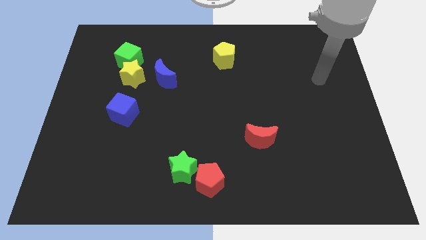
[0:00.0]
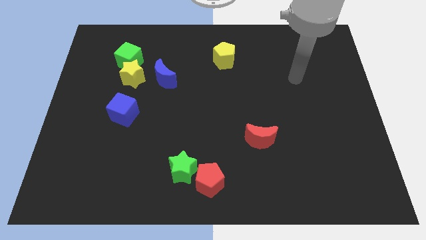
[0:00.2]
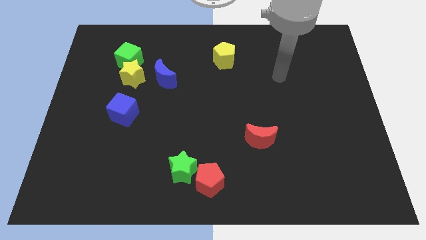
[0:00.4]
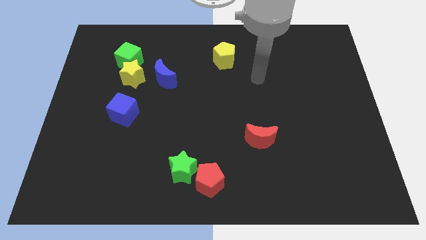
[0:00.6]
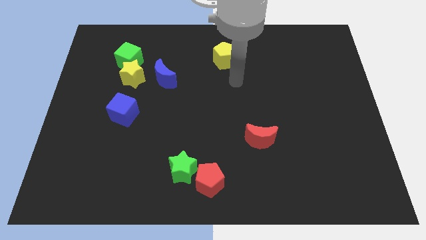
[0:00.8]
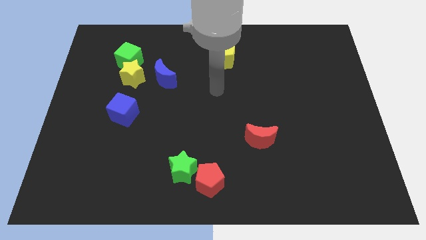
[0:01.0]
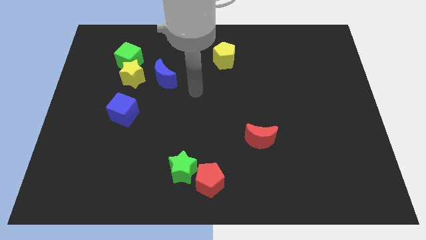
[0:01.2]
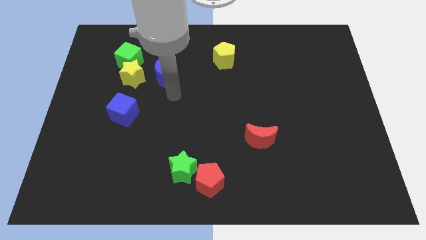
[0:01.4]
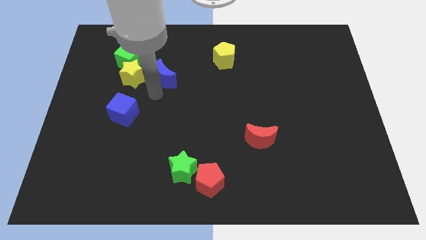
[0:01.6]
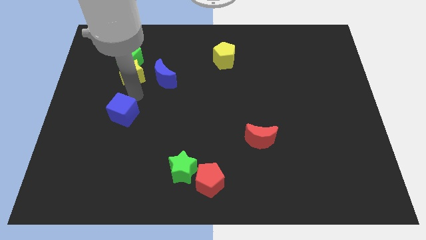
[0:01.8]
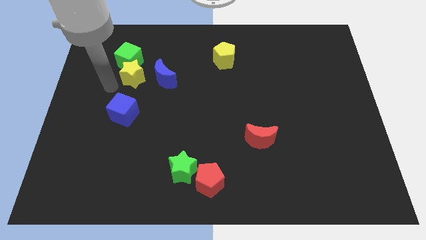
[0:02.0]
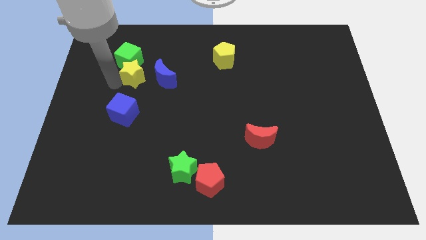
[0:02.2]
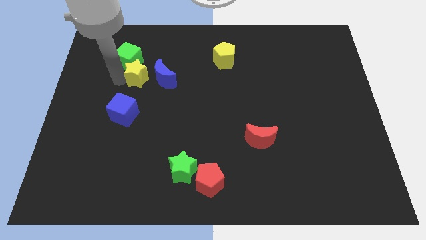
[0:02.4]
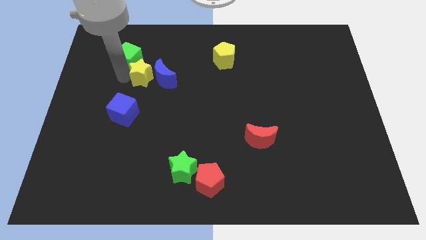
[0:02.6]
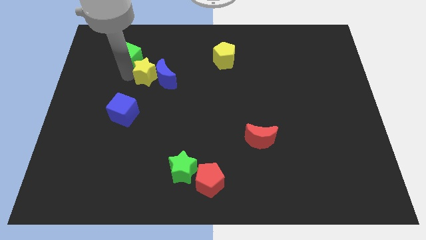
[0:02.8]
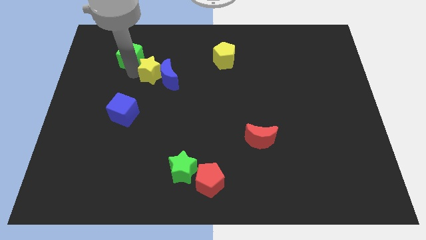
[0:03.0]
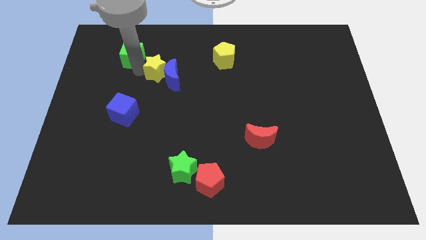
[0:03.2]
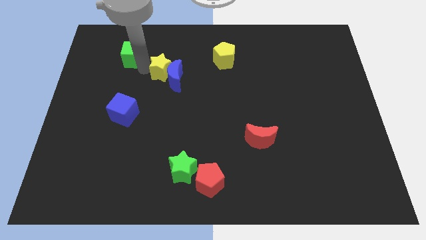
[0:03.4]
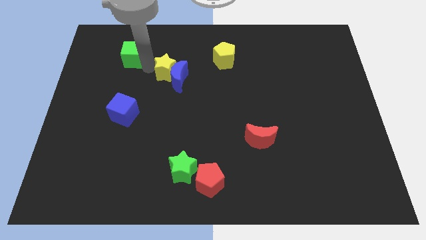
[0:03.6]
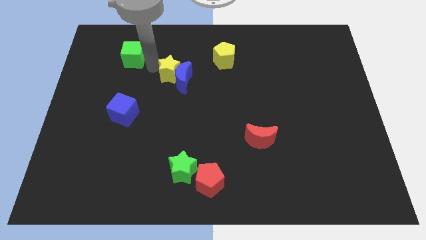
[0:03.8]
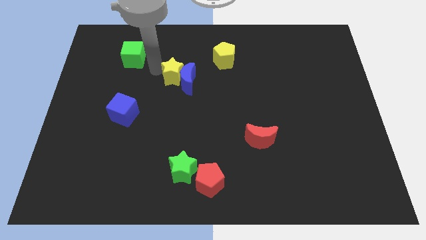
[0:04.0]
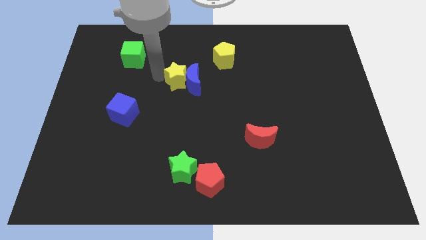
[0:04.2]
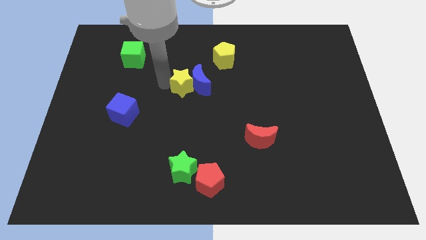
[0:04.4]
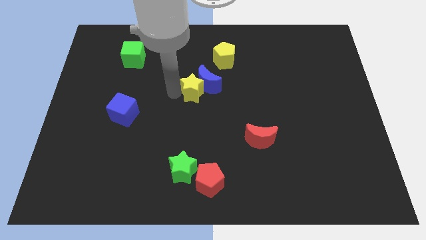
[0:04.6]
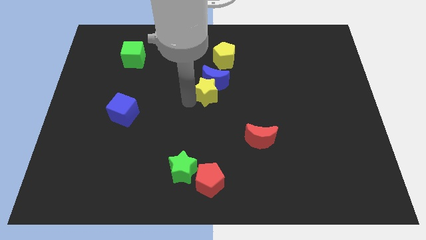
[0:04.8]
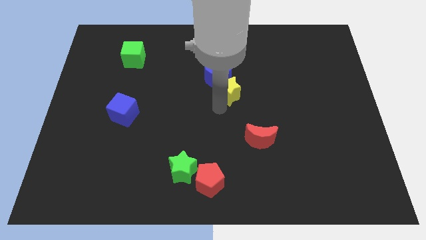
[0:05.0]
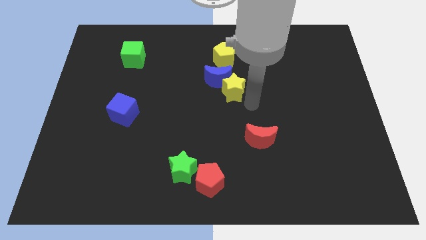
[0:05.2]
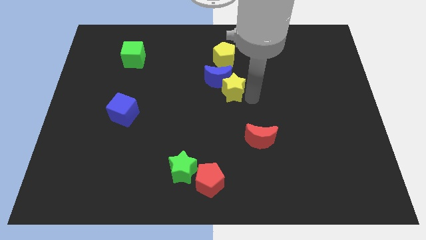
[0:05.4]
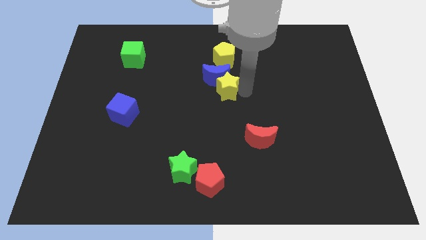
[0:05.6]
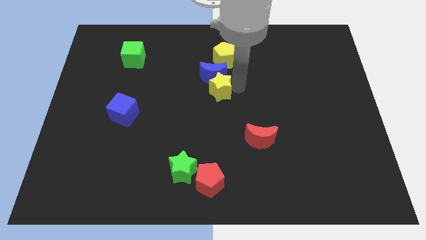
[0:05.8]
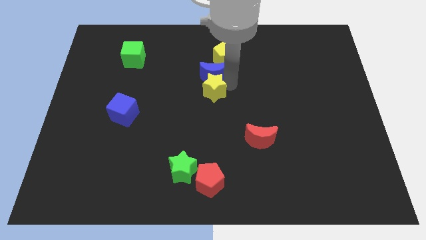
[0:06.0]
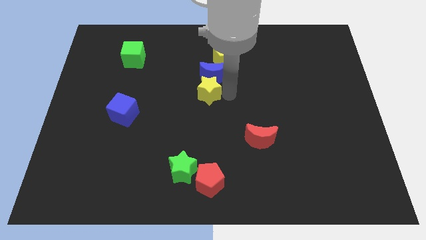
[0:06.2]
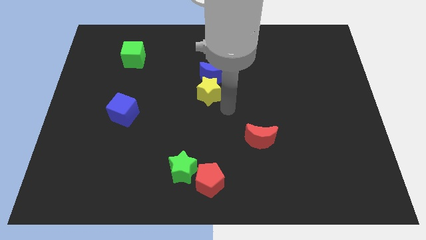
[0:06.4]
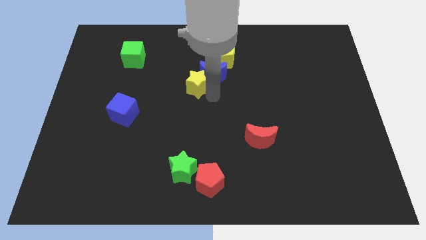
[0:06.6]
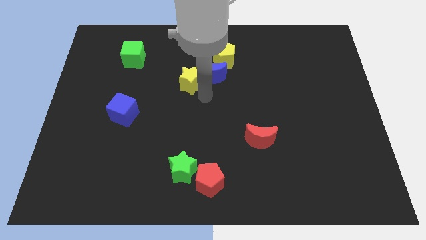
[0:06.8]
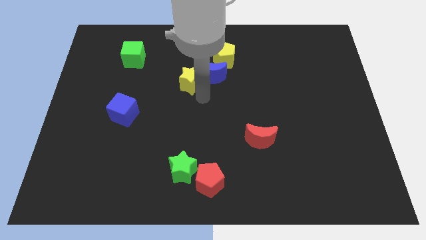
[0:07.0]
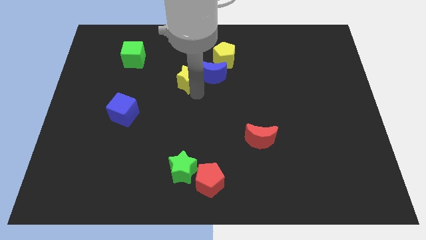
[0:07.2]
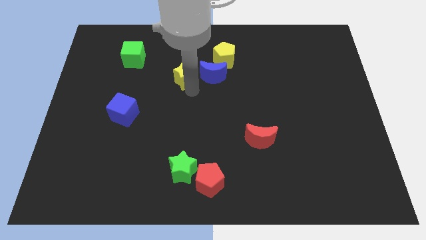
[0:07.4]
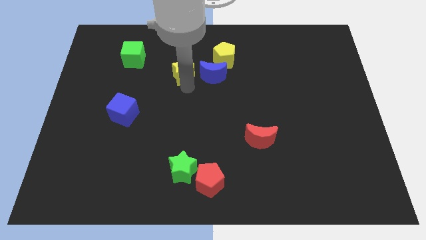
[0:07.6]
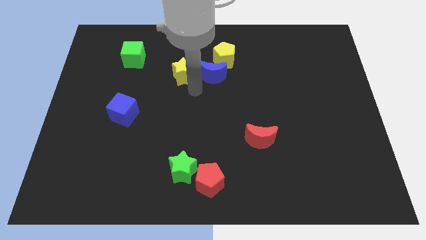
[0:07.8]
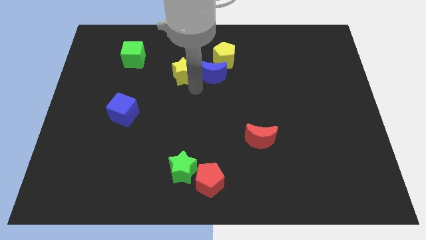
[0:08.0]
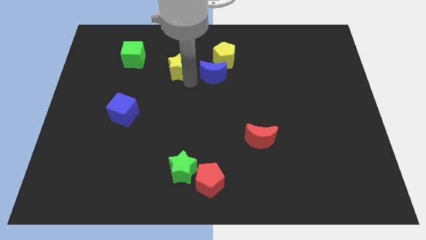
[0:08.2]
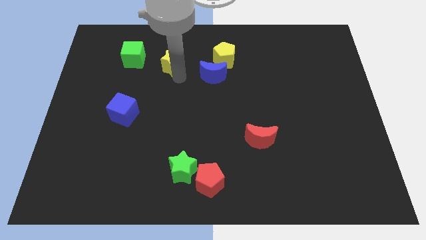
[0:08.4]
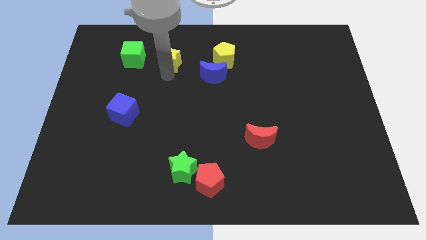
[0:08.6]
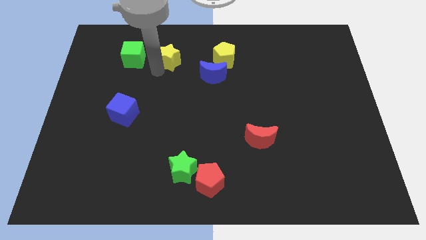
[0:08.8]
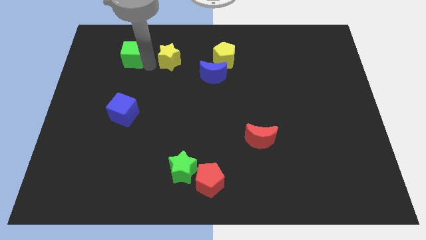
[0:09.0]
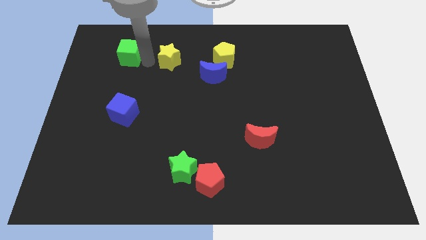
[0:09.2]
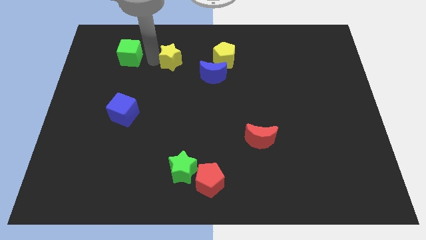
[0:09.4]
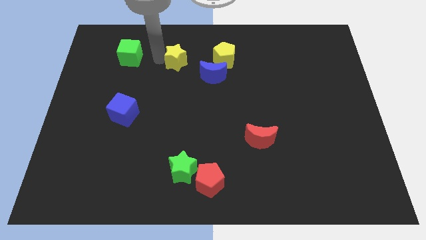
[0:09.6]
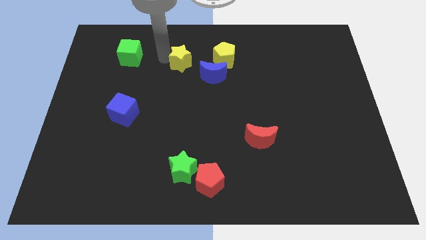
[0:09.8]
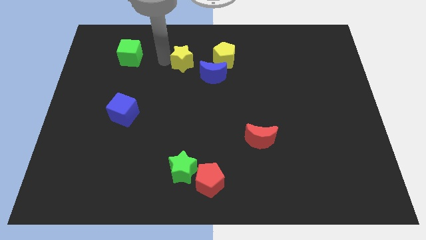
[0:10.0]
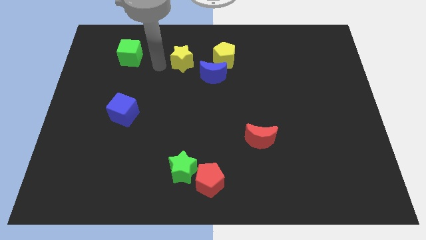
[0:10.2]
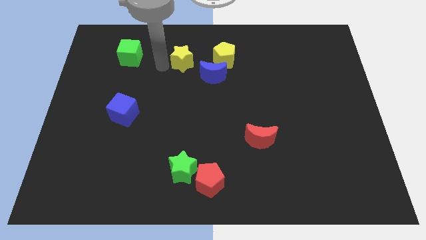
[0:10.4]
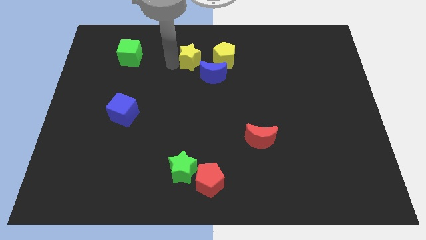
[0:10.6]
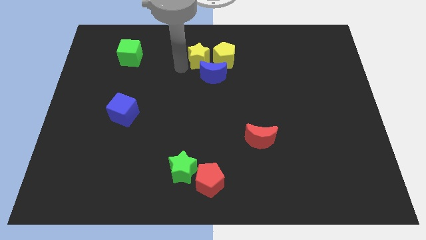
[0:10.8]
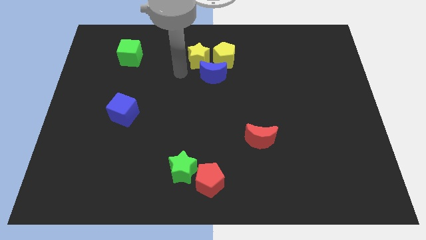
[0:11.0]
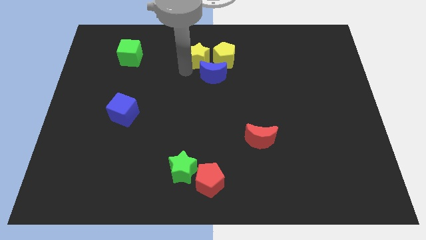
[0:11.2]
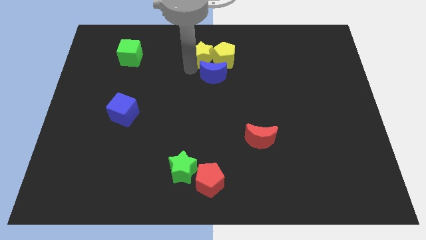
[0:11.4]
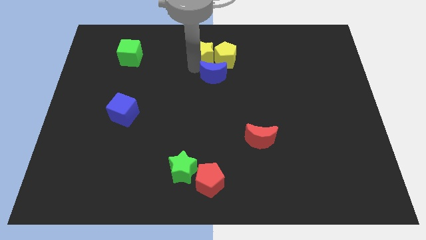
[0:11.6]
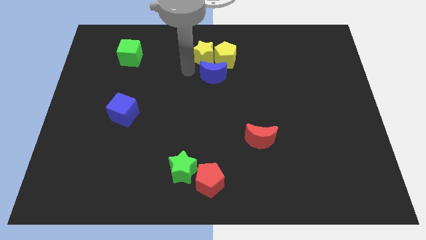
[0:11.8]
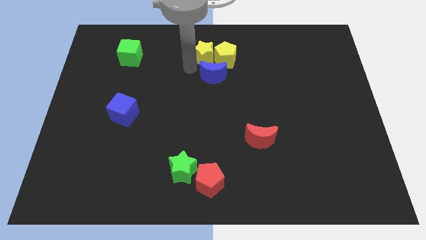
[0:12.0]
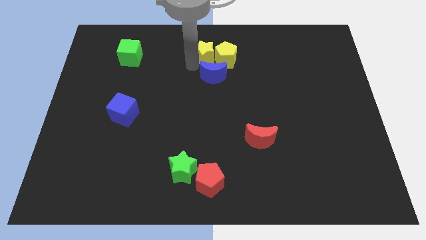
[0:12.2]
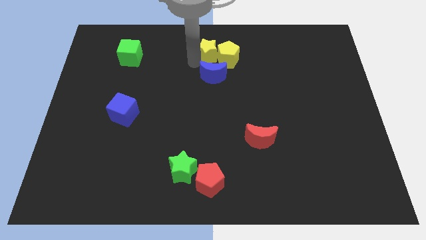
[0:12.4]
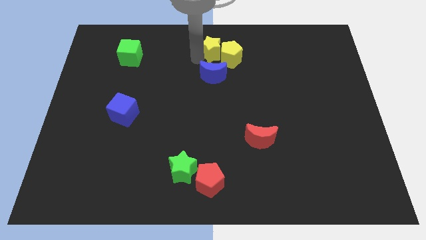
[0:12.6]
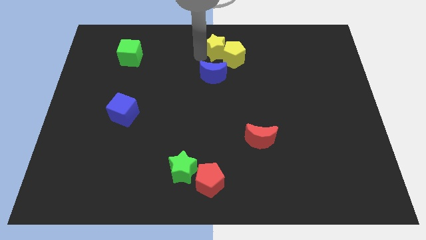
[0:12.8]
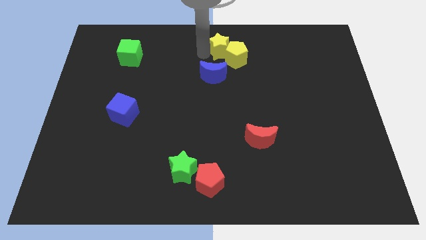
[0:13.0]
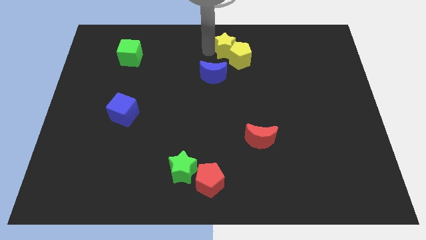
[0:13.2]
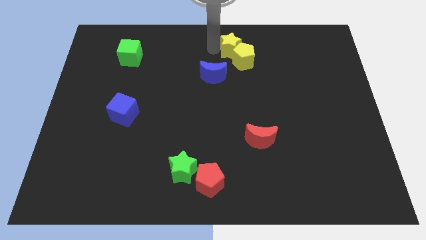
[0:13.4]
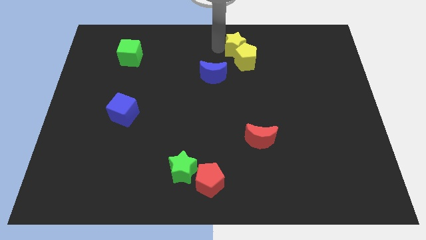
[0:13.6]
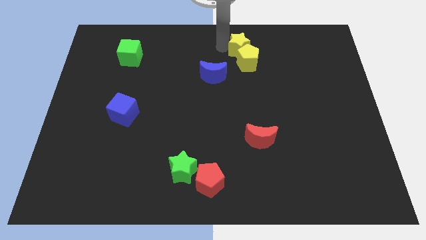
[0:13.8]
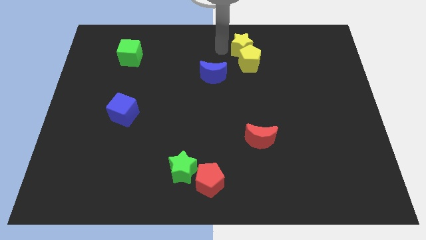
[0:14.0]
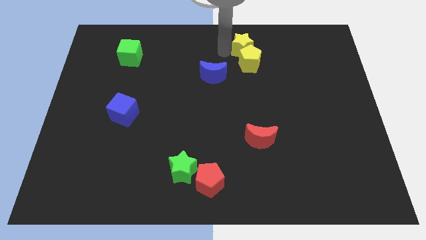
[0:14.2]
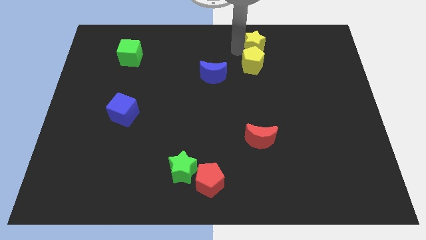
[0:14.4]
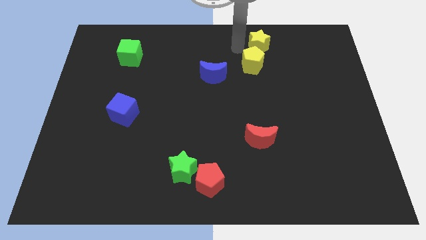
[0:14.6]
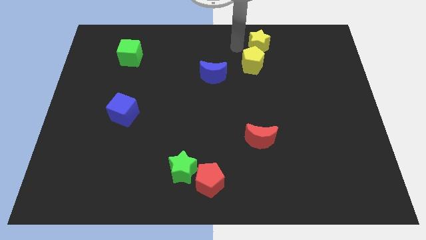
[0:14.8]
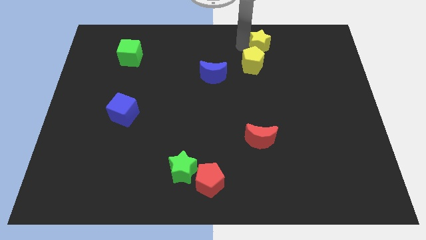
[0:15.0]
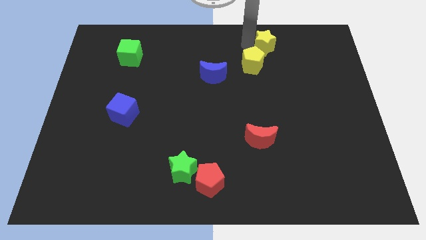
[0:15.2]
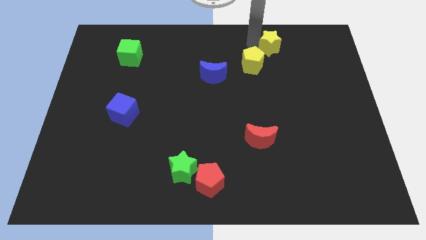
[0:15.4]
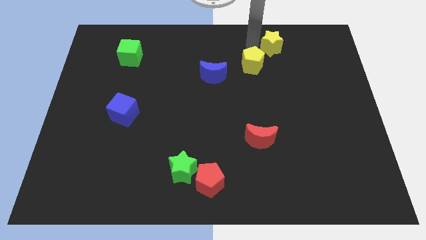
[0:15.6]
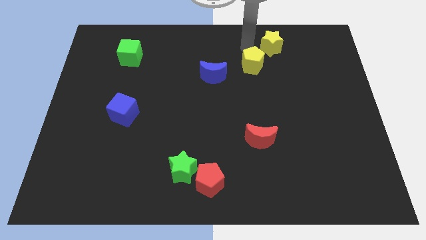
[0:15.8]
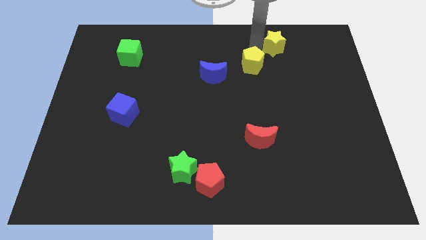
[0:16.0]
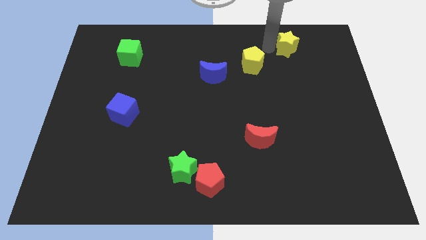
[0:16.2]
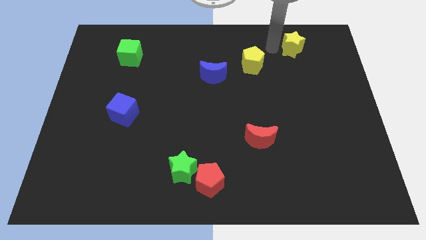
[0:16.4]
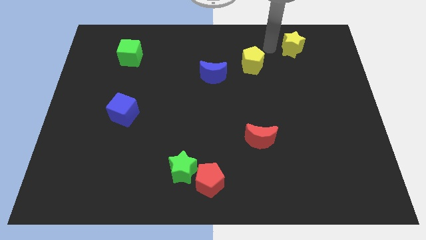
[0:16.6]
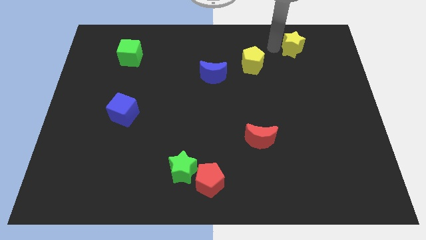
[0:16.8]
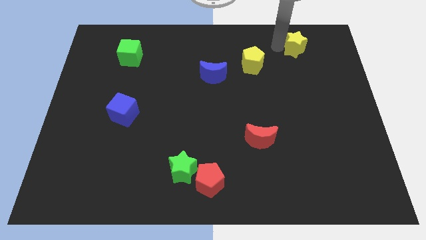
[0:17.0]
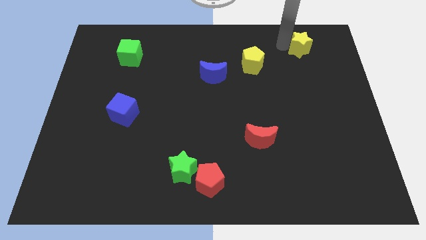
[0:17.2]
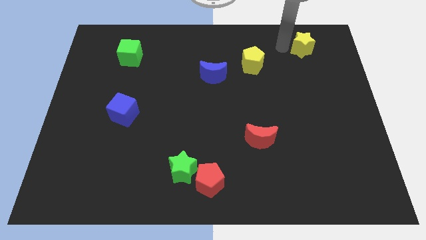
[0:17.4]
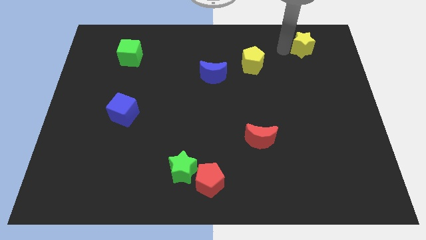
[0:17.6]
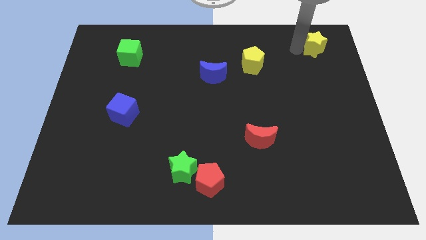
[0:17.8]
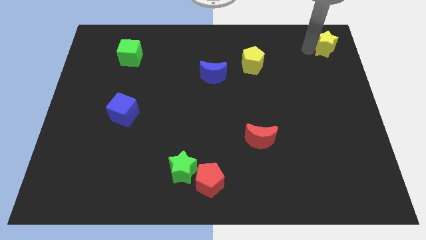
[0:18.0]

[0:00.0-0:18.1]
slide the yellow star to the top right corner
